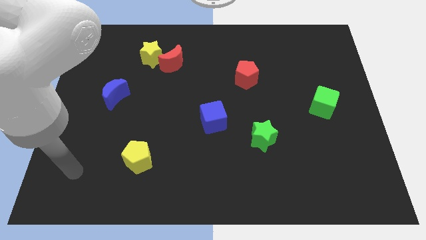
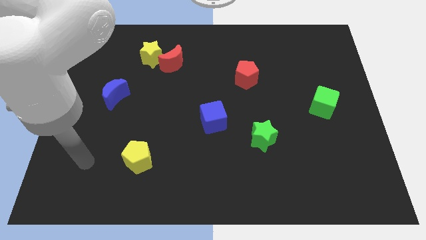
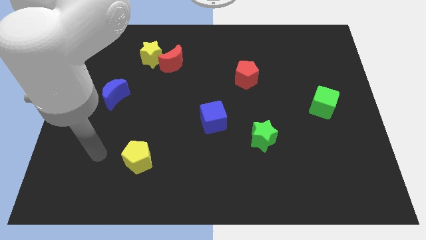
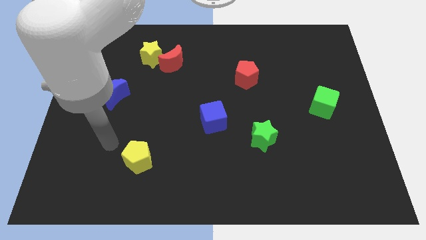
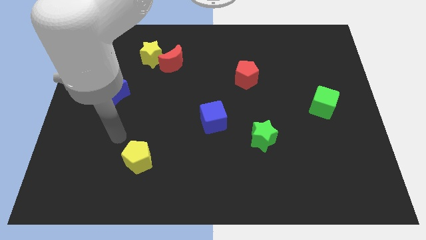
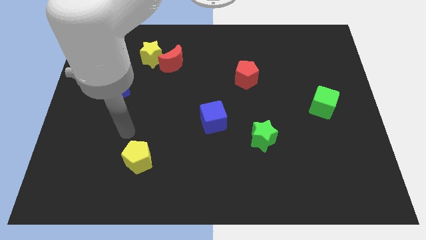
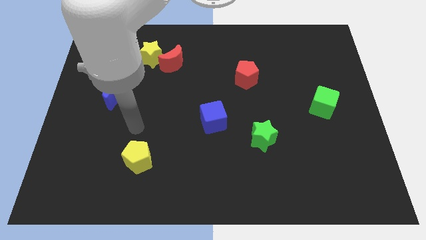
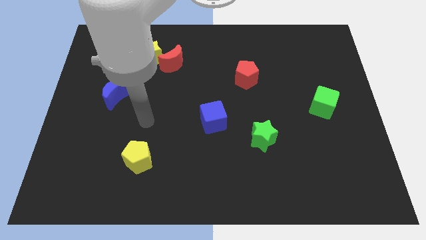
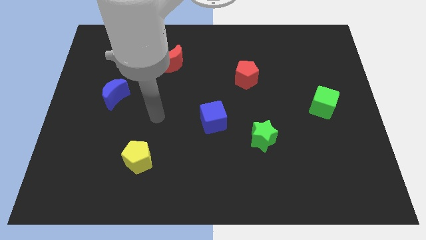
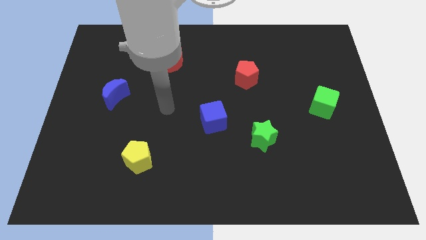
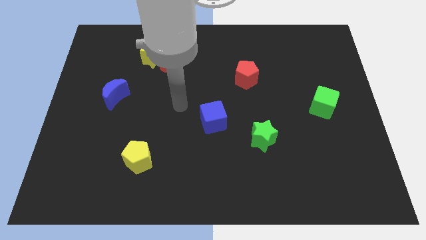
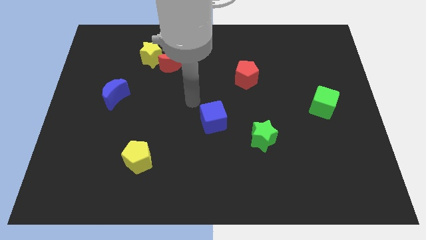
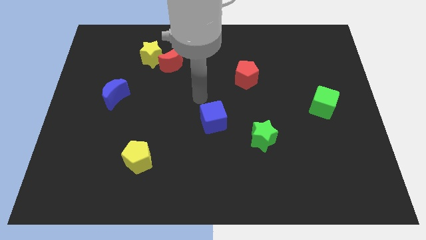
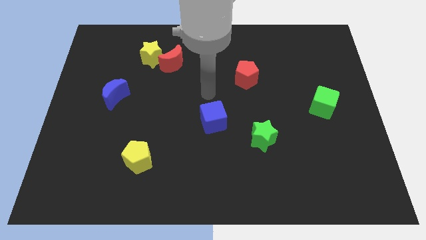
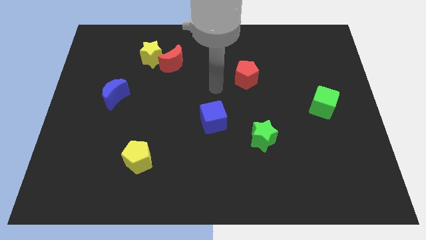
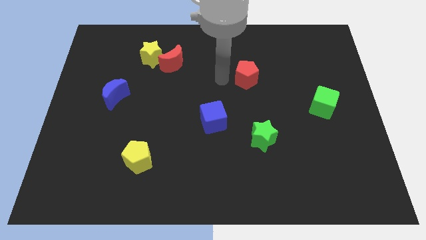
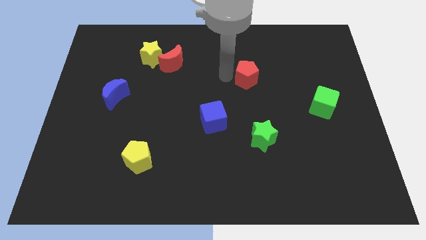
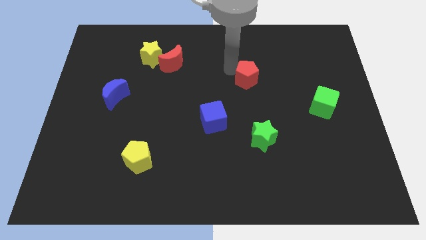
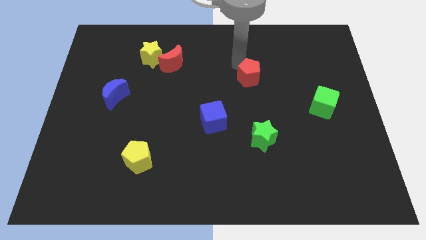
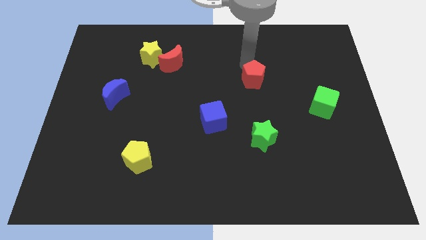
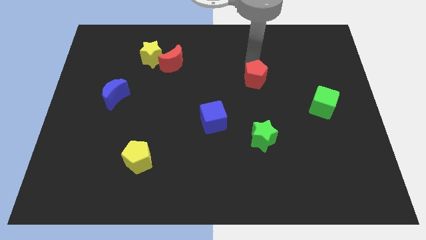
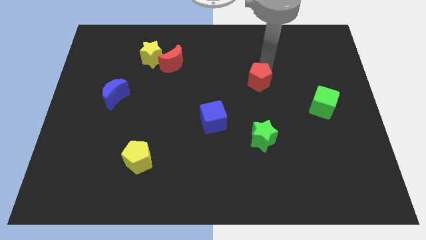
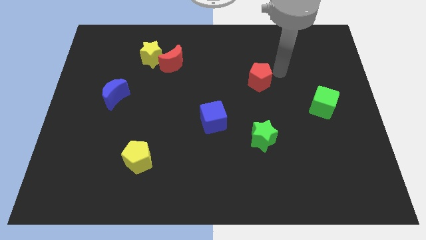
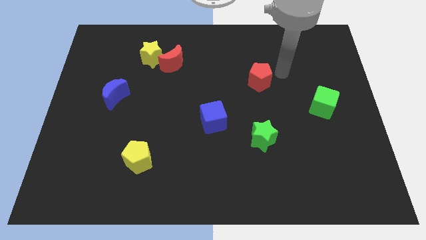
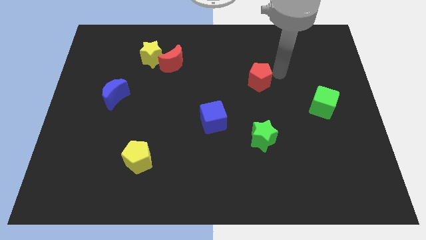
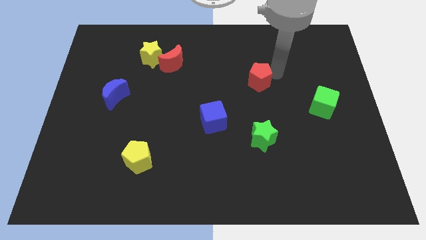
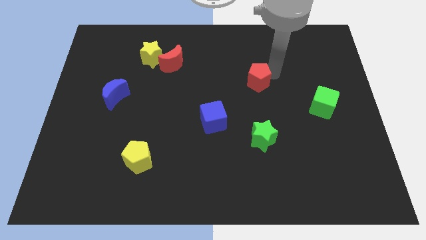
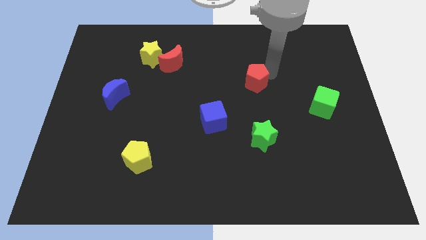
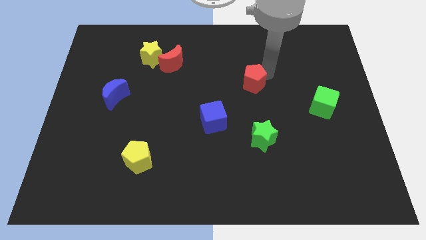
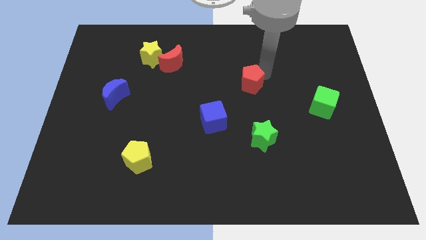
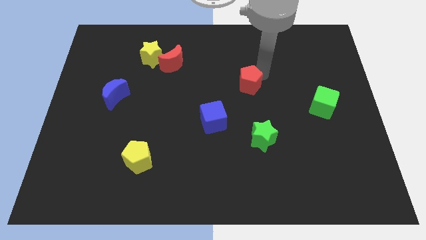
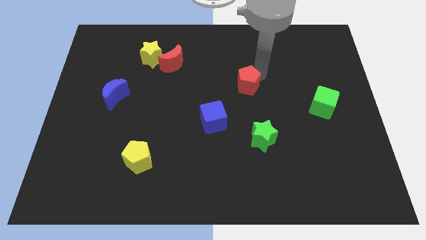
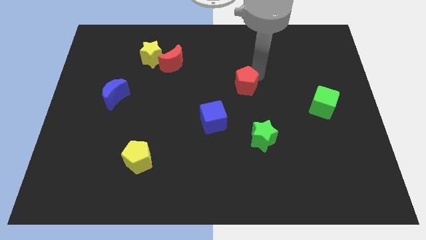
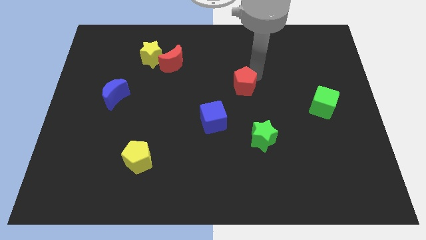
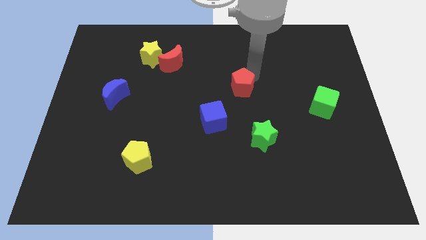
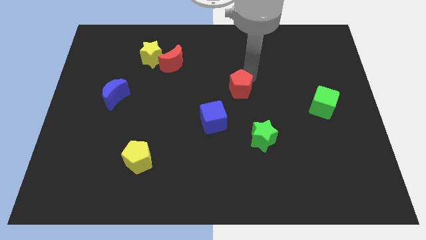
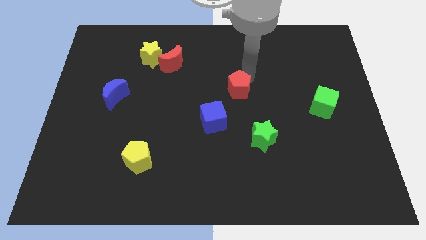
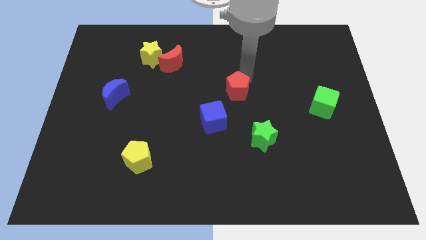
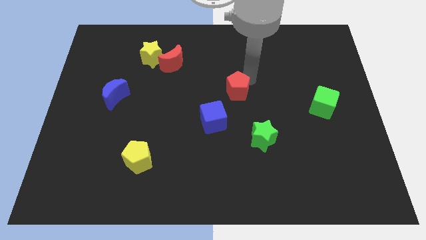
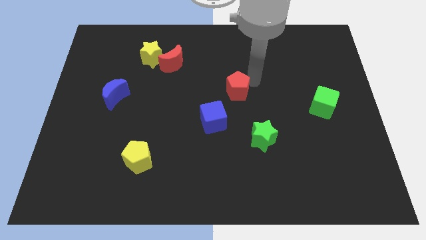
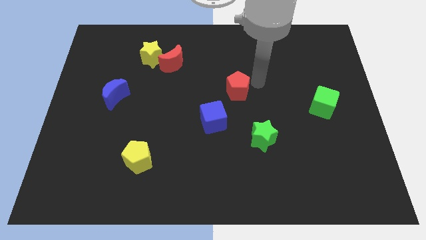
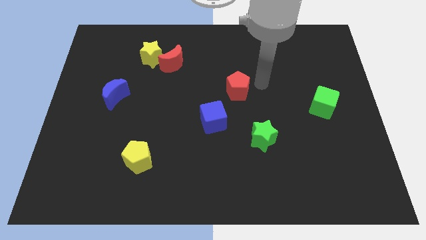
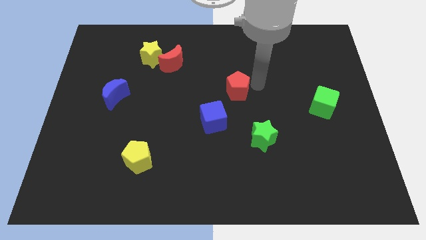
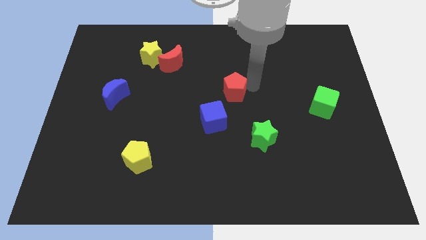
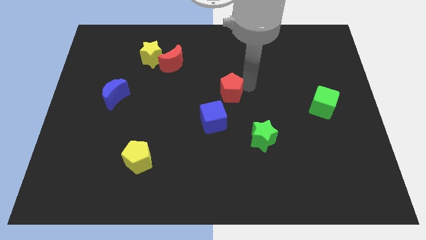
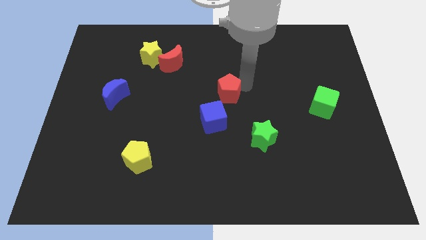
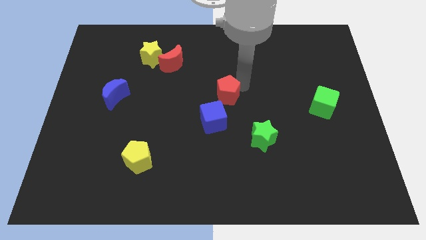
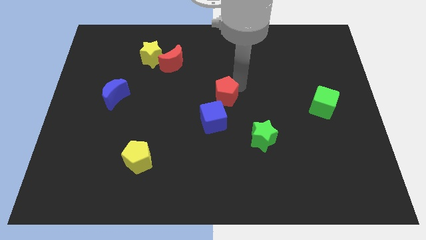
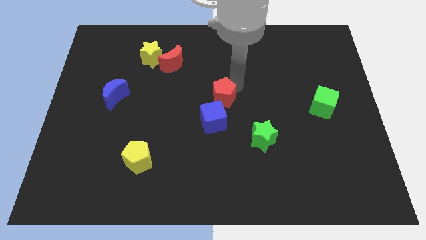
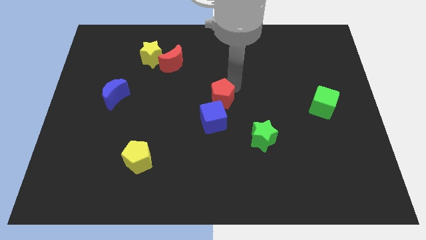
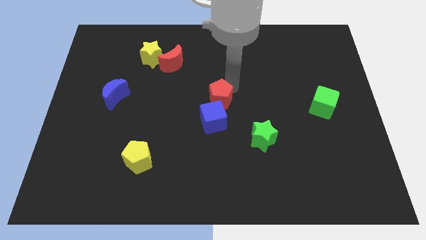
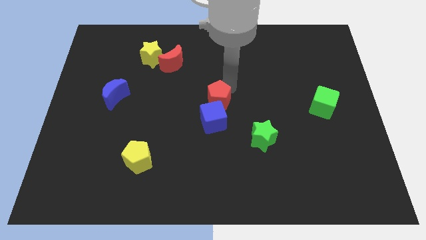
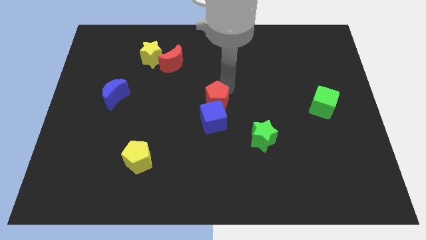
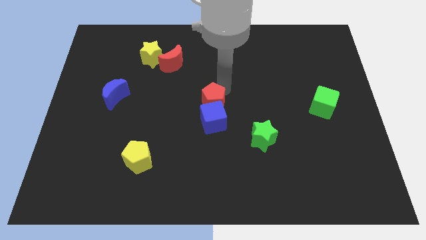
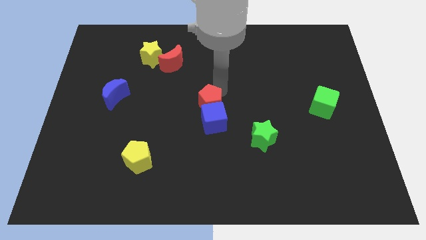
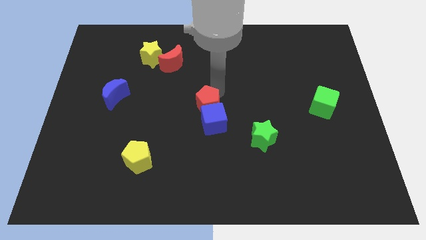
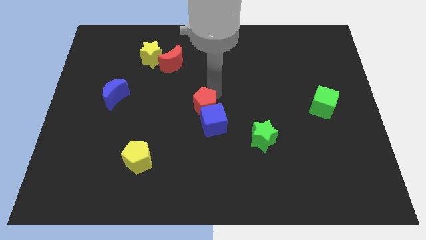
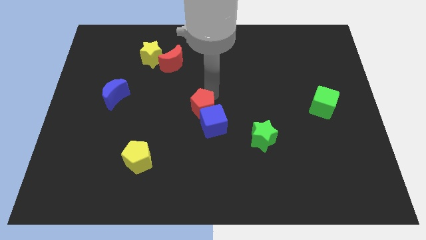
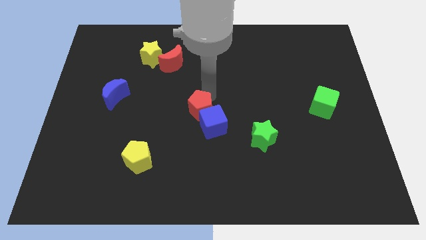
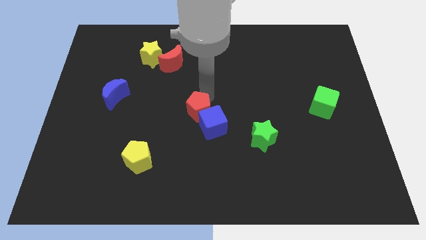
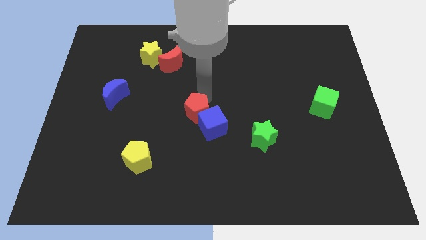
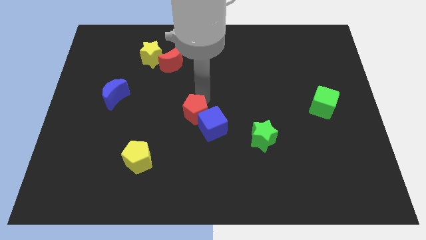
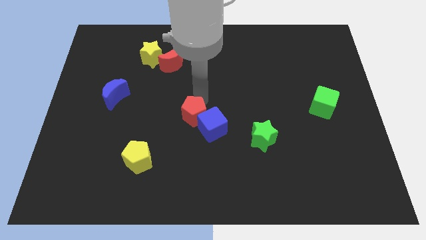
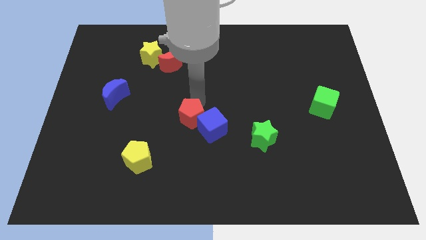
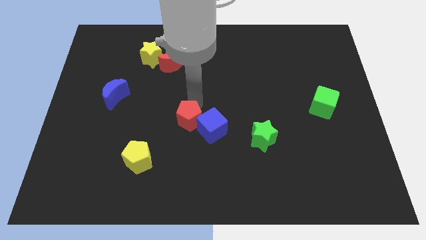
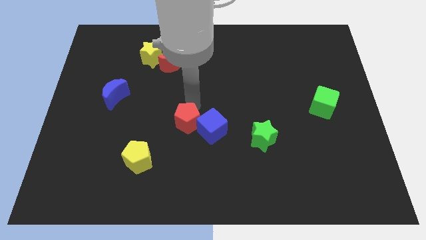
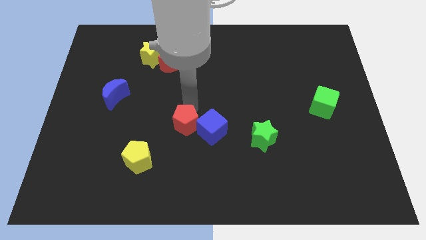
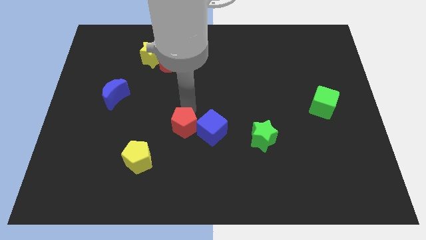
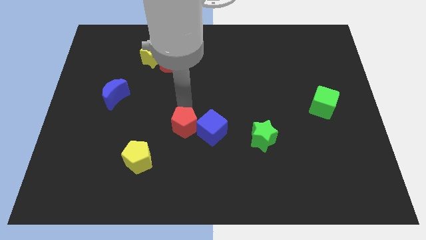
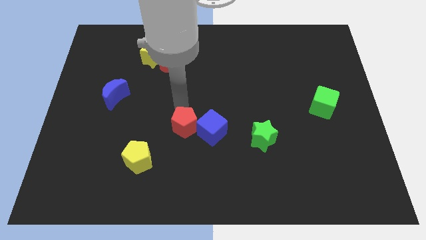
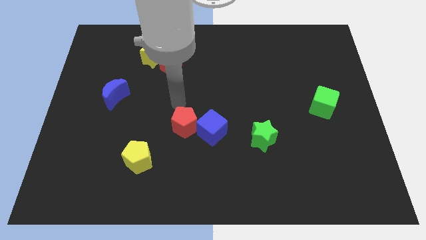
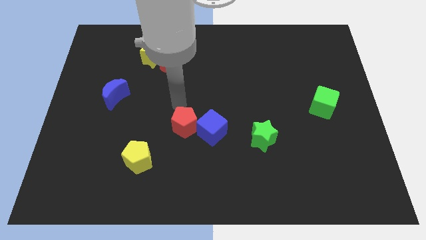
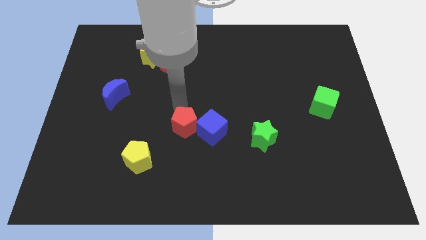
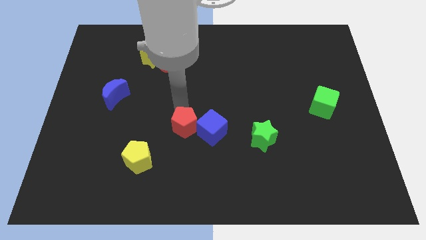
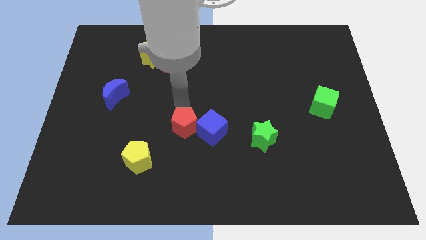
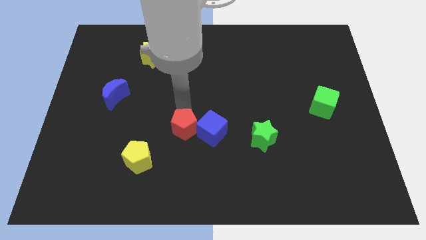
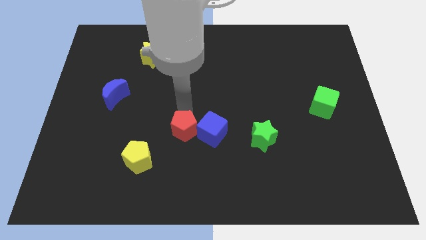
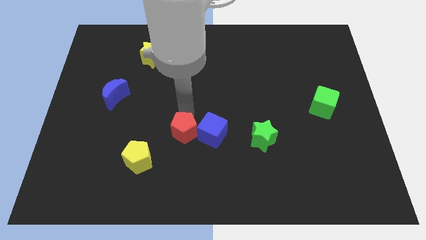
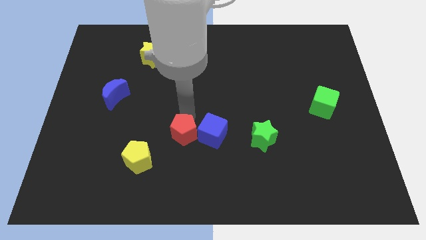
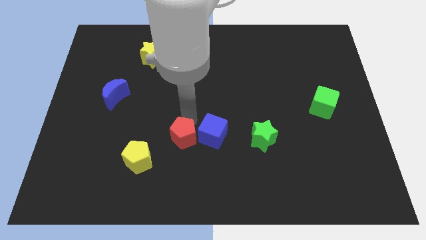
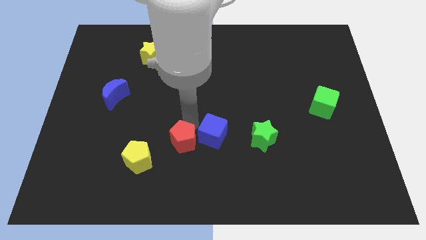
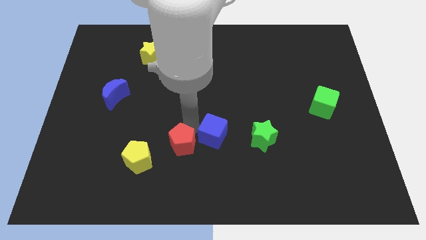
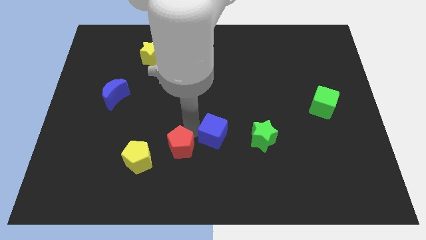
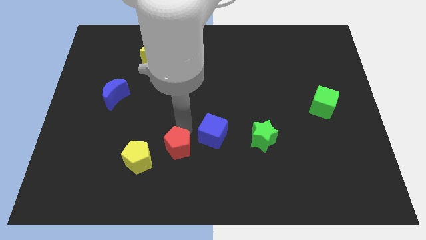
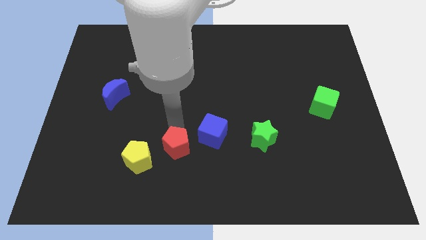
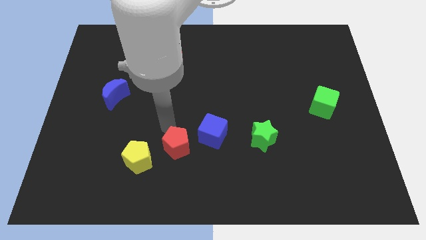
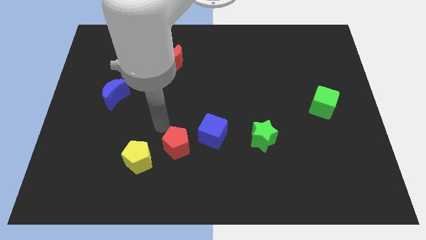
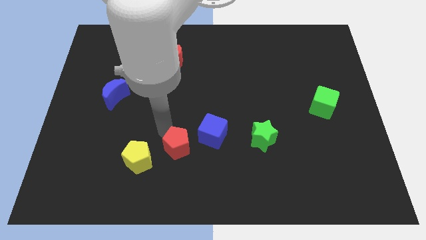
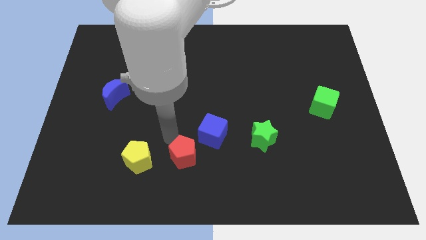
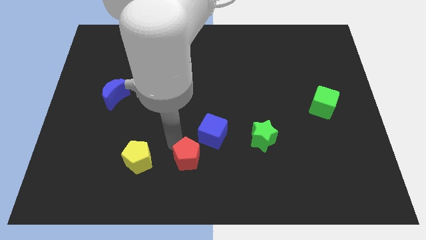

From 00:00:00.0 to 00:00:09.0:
slide the red pentagon to the bottom
